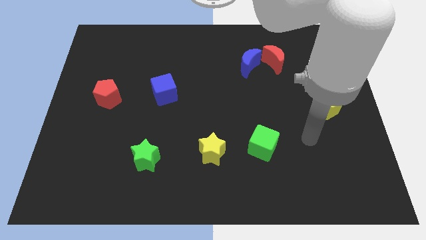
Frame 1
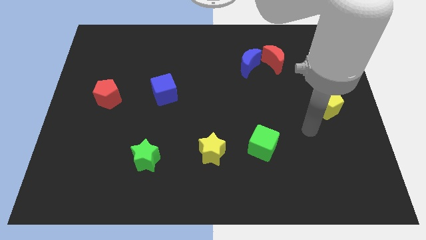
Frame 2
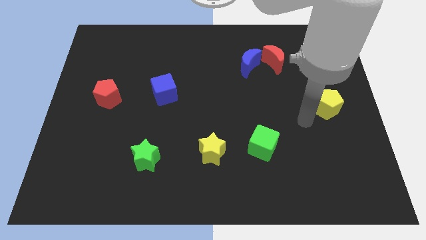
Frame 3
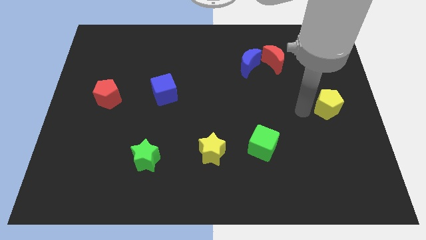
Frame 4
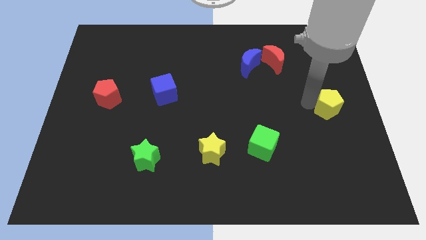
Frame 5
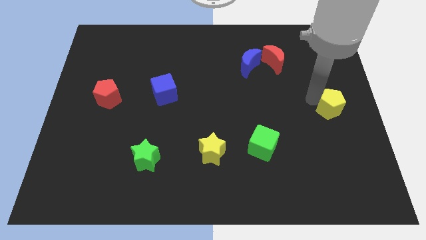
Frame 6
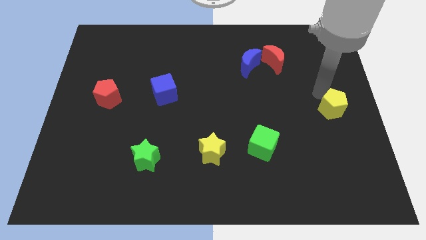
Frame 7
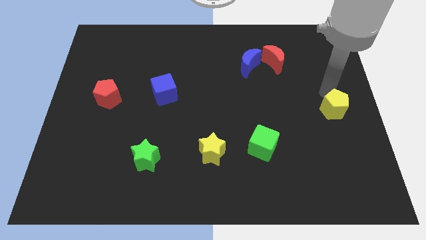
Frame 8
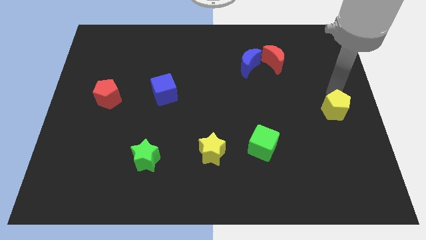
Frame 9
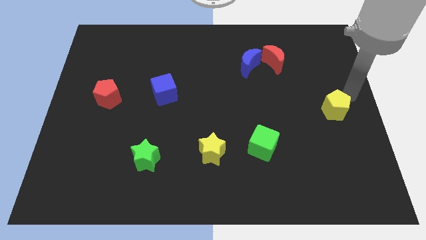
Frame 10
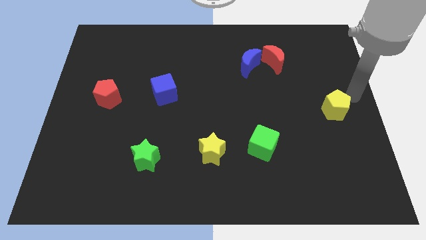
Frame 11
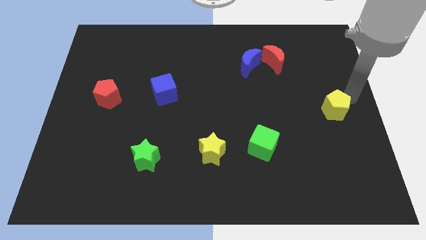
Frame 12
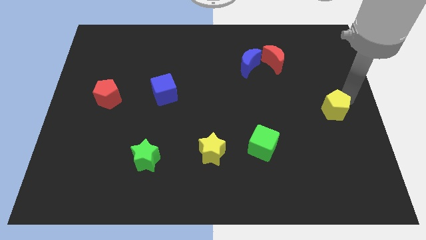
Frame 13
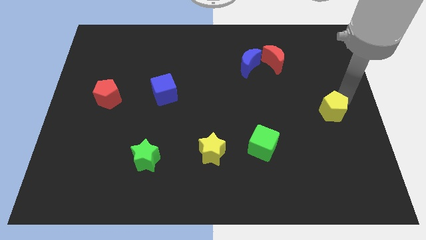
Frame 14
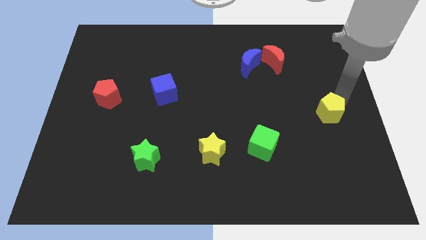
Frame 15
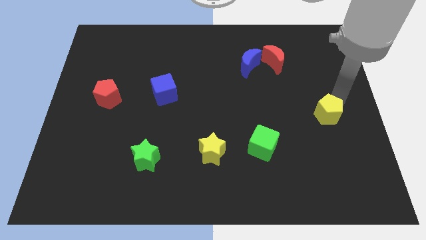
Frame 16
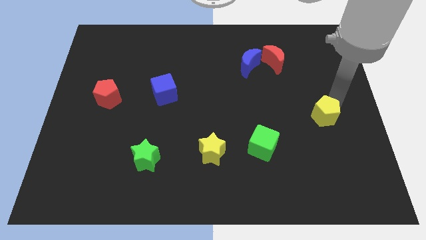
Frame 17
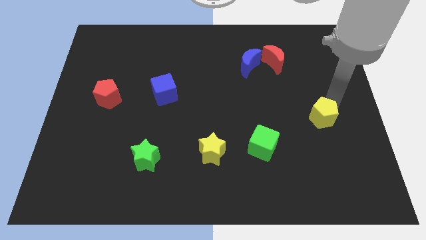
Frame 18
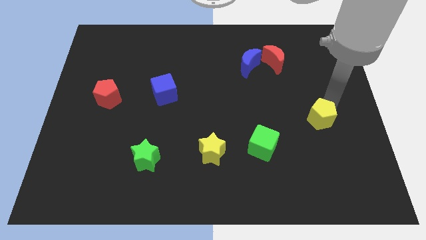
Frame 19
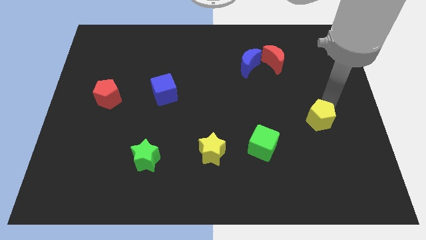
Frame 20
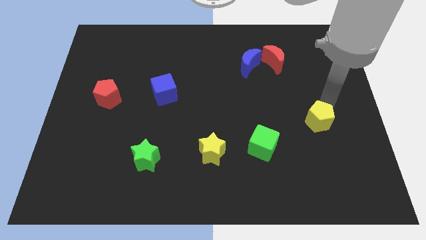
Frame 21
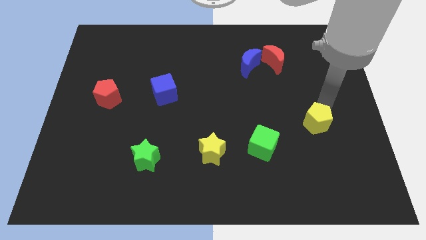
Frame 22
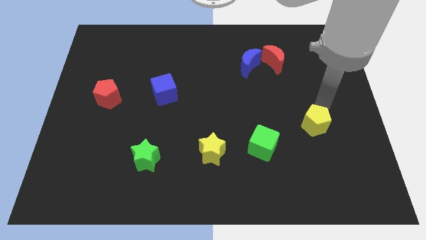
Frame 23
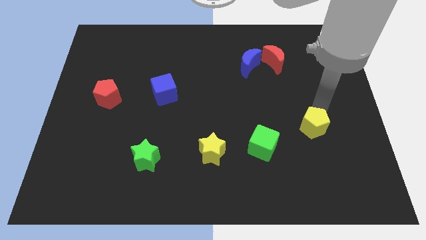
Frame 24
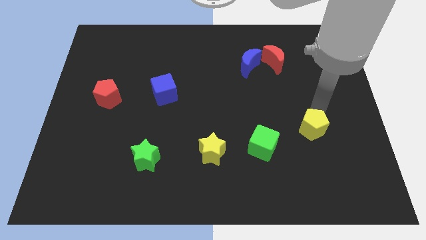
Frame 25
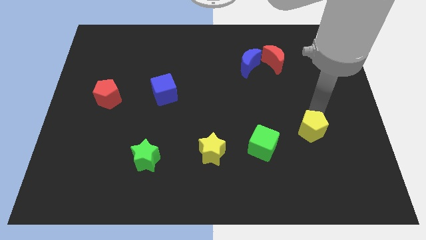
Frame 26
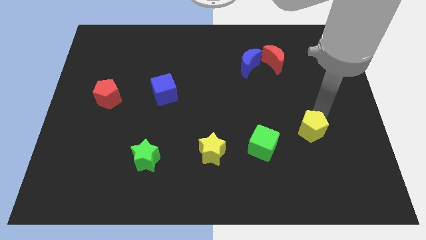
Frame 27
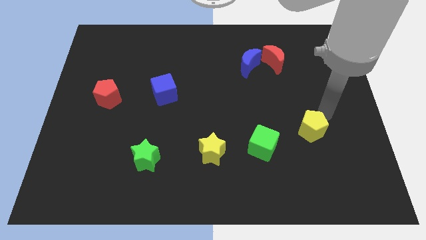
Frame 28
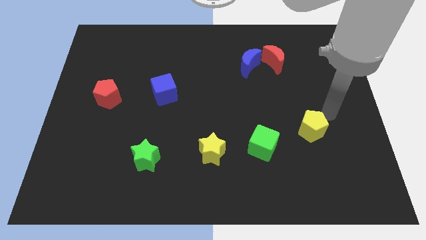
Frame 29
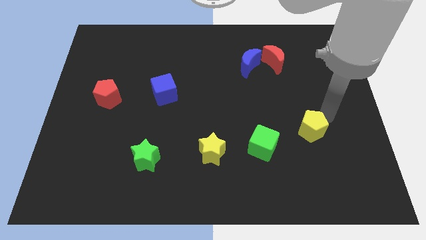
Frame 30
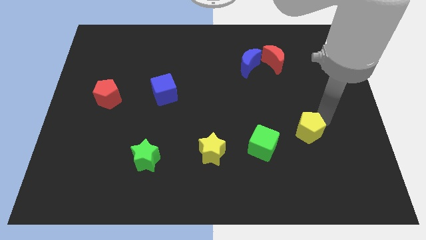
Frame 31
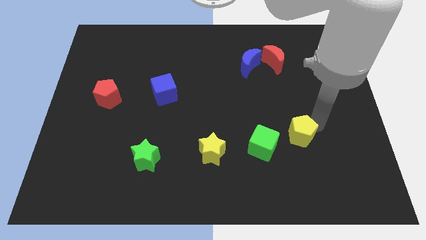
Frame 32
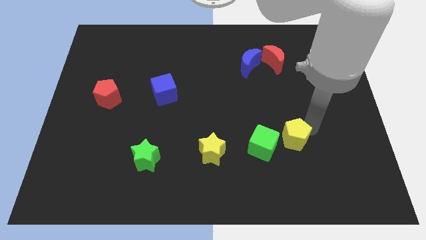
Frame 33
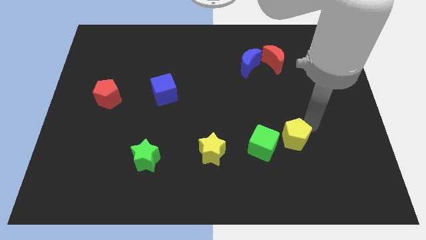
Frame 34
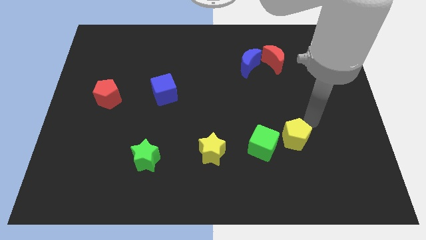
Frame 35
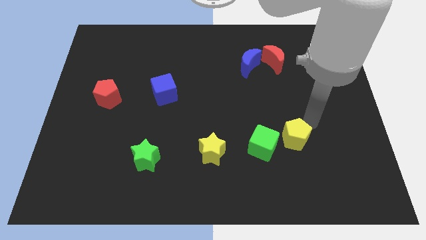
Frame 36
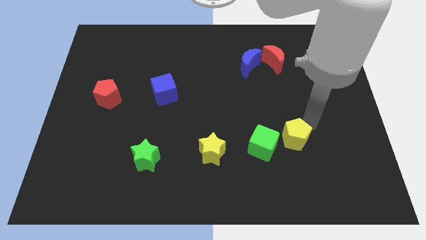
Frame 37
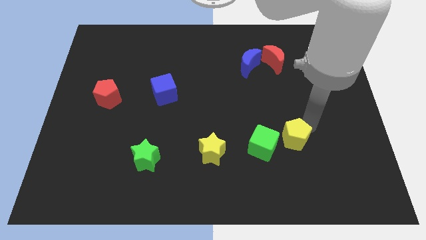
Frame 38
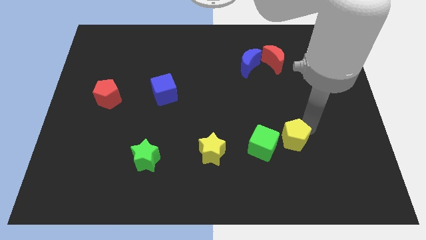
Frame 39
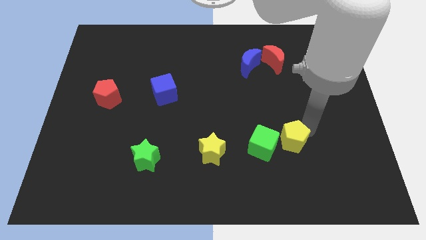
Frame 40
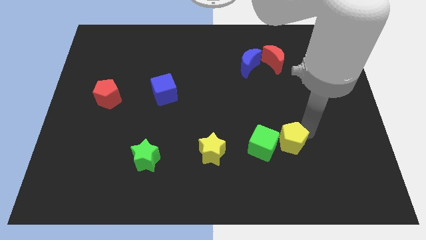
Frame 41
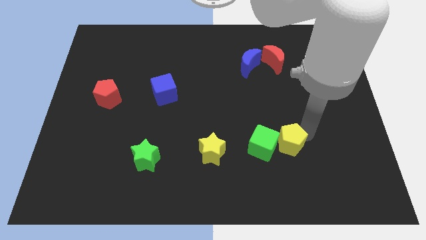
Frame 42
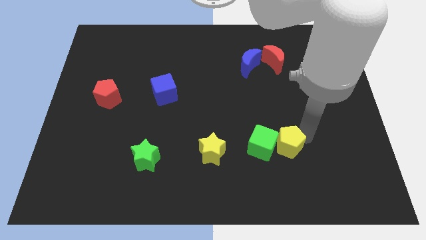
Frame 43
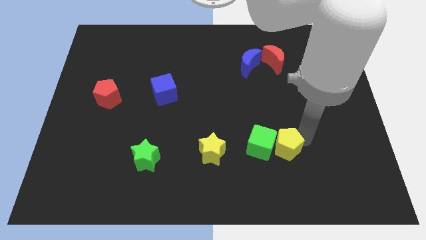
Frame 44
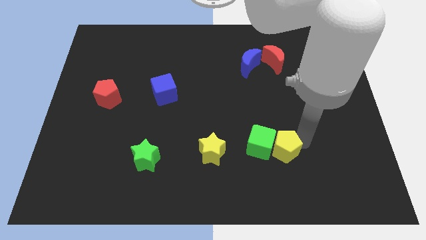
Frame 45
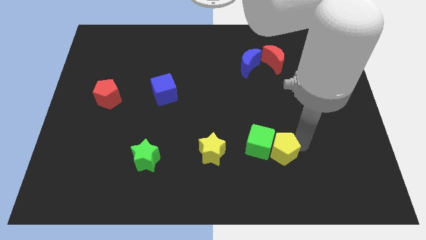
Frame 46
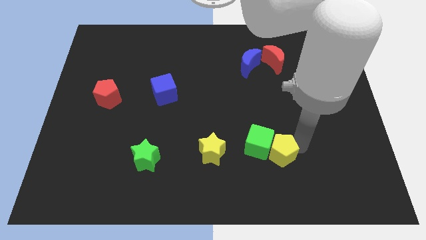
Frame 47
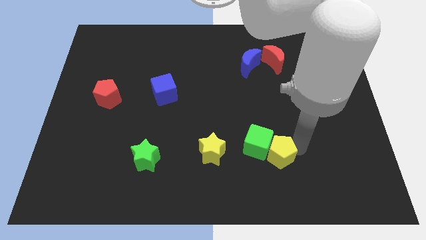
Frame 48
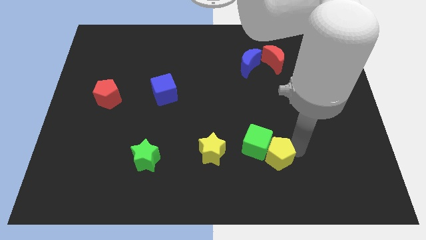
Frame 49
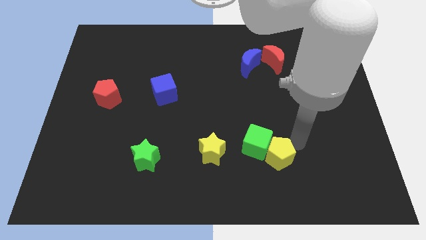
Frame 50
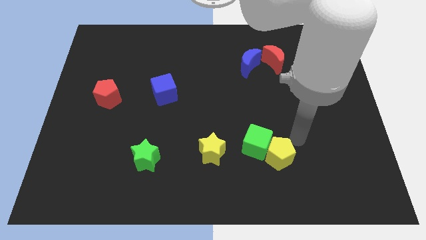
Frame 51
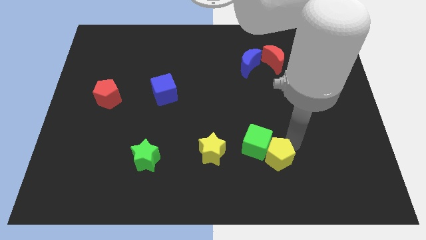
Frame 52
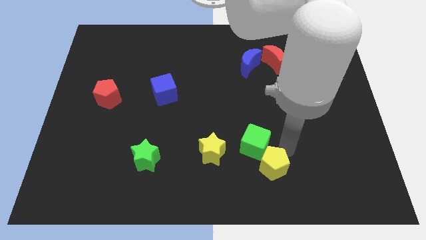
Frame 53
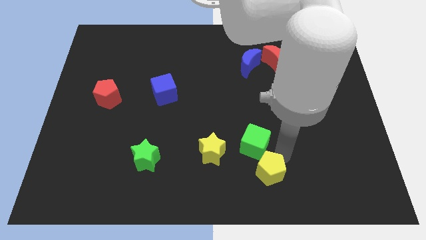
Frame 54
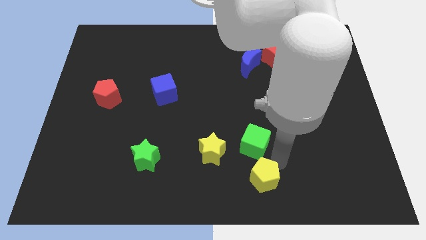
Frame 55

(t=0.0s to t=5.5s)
put the yellow pentagon to the bottom side
